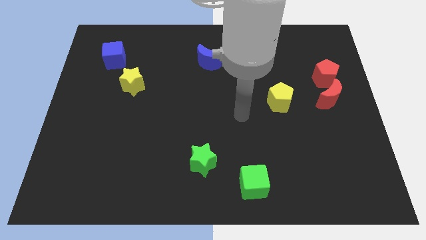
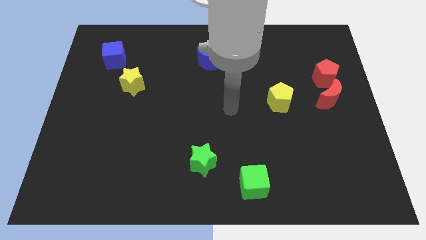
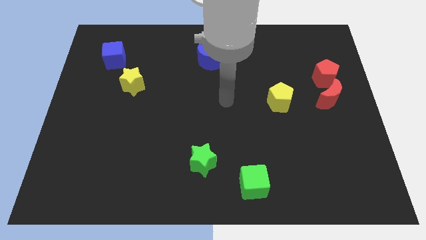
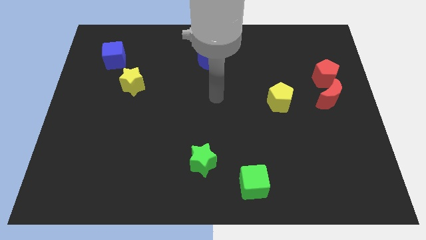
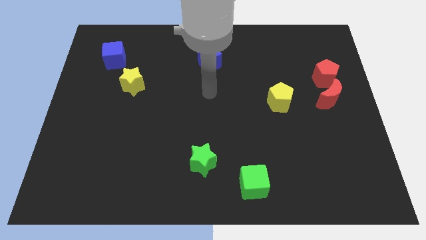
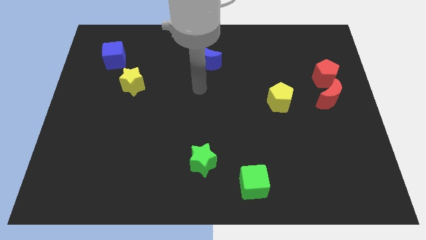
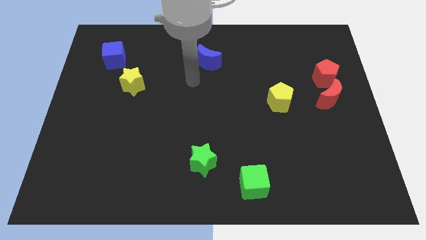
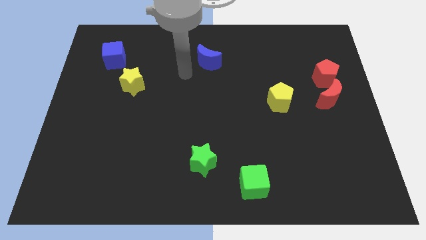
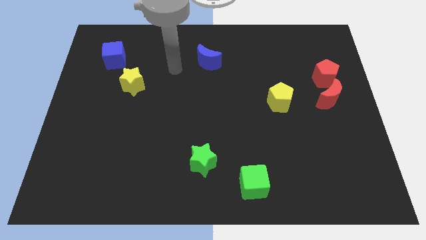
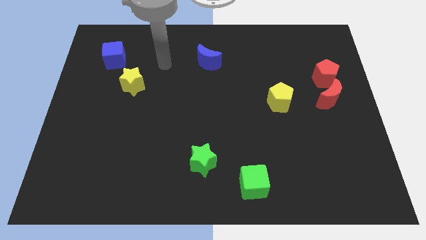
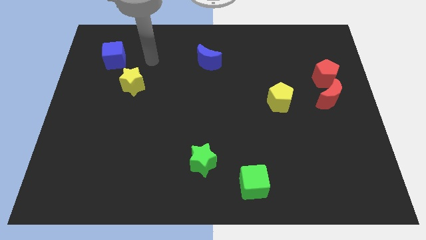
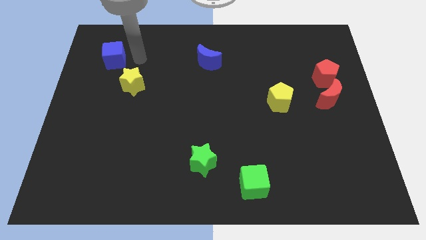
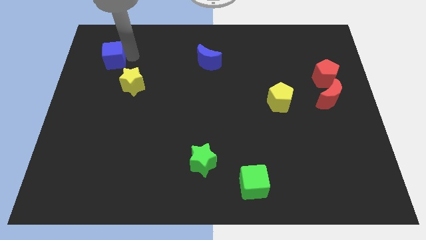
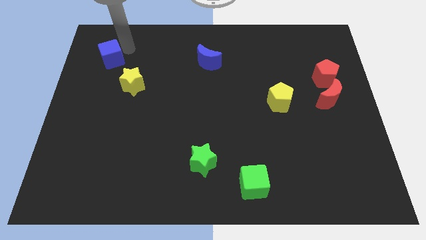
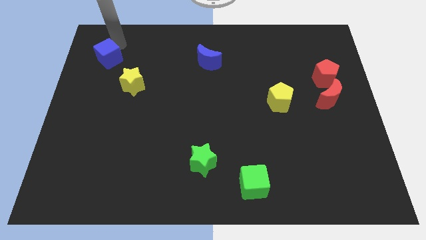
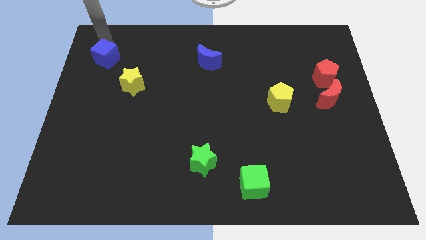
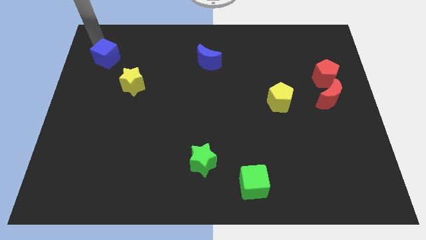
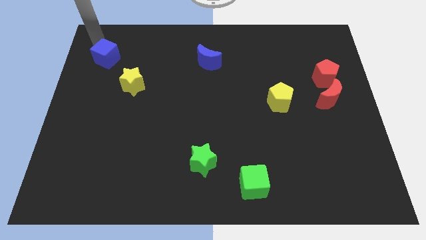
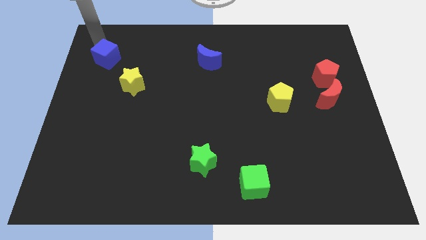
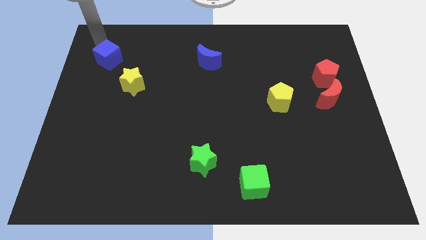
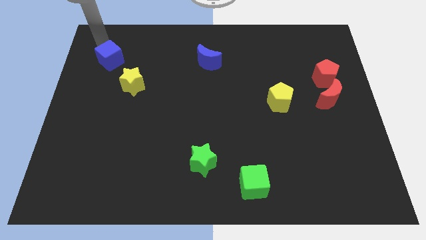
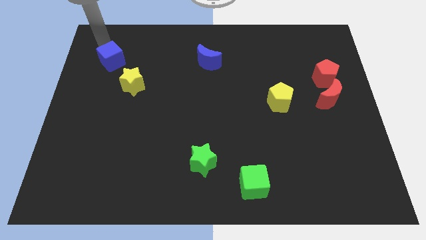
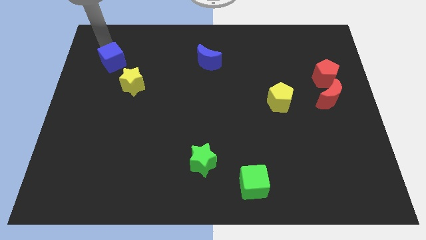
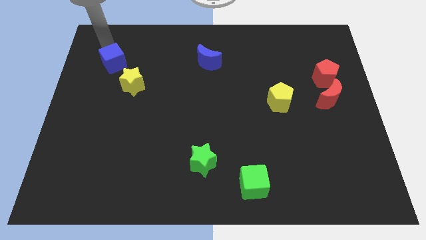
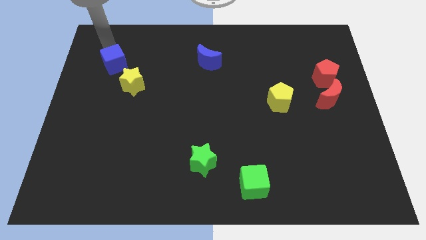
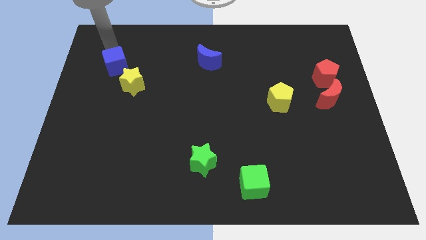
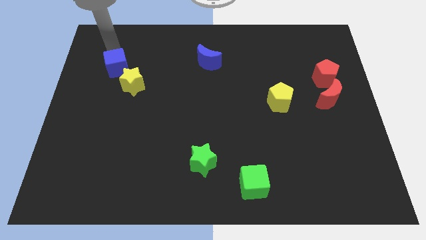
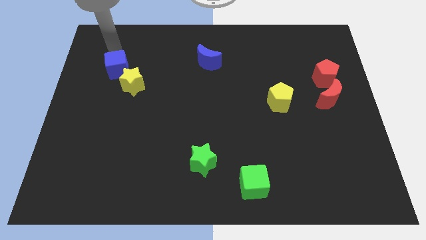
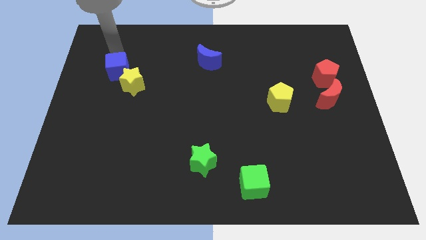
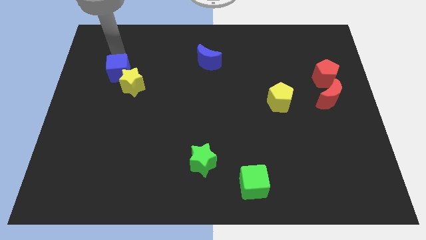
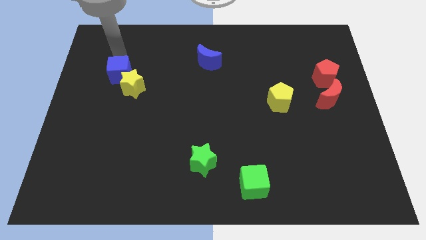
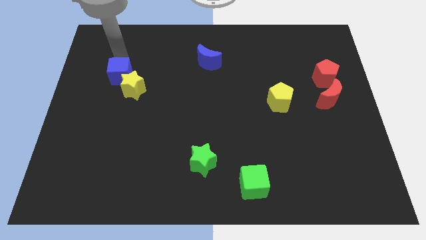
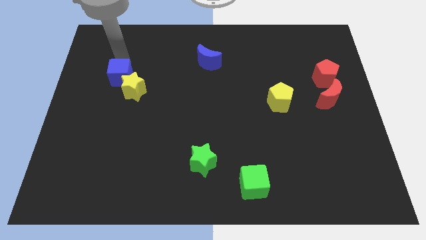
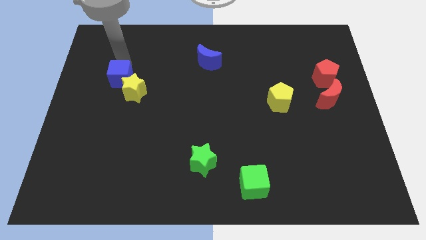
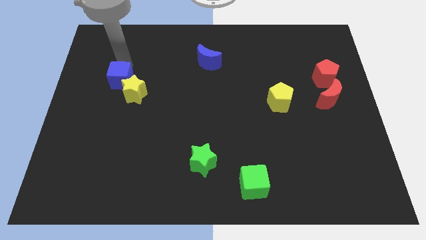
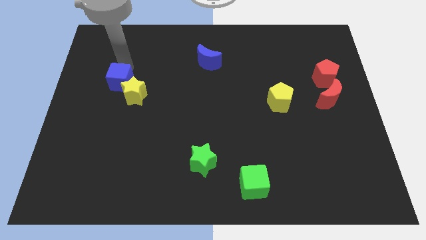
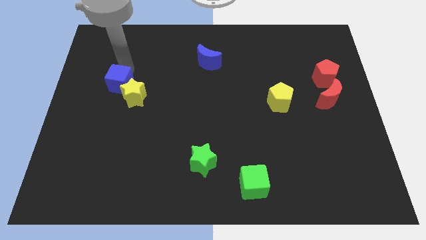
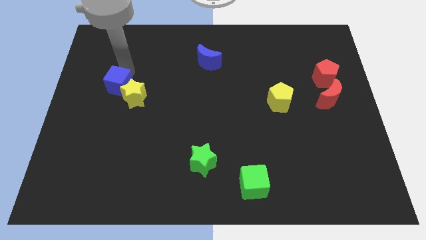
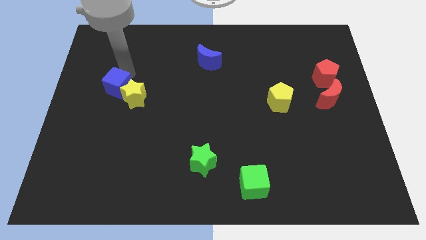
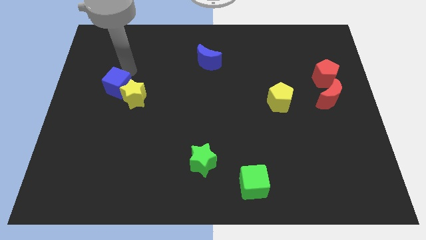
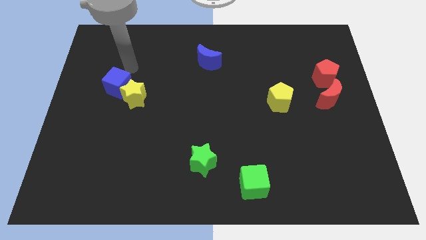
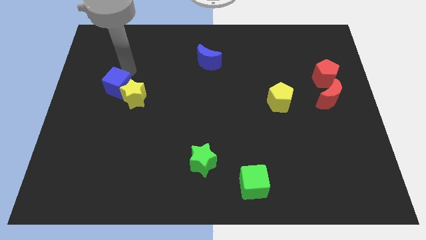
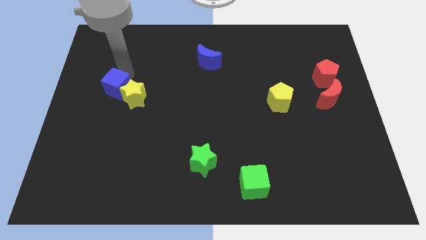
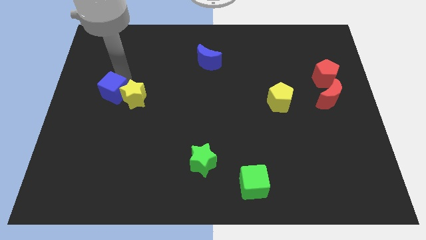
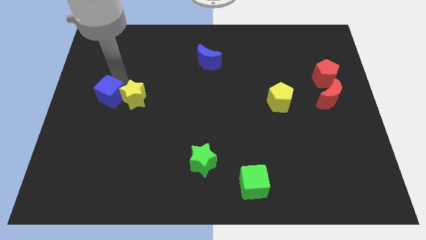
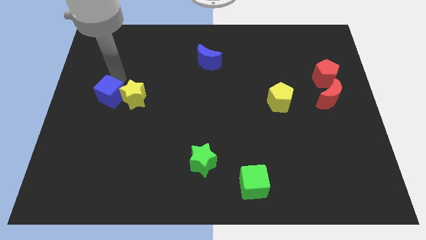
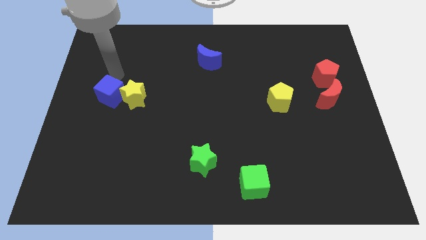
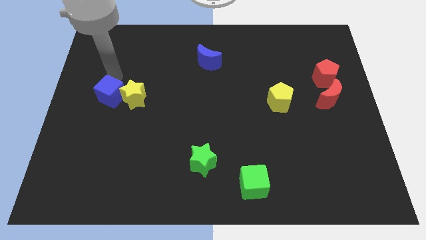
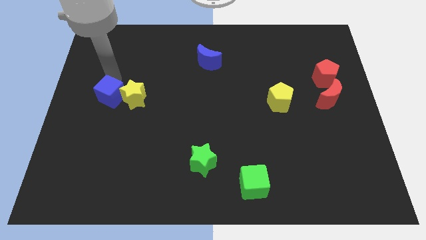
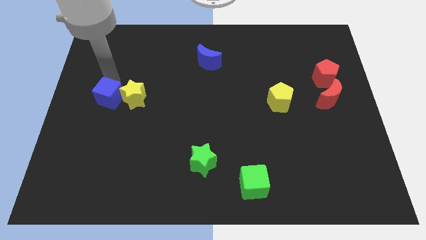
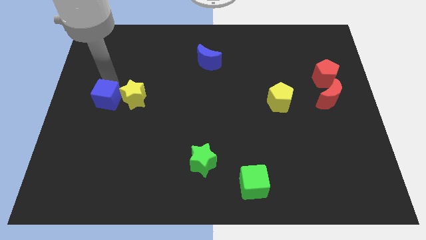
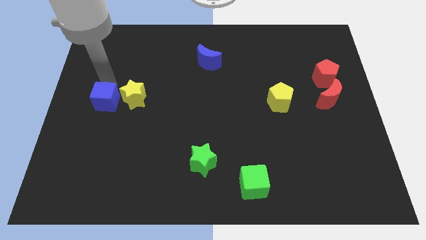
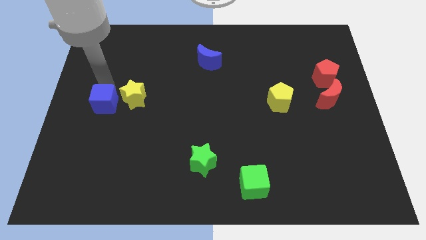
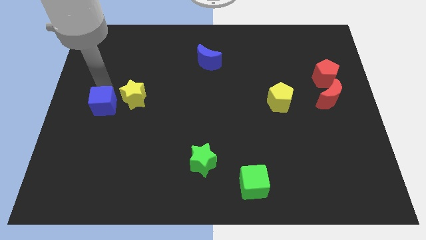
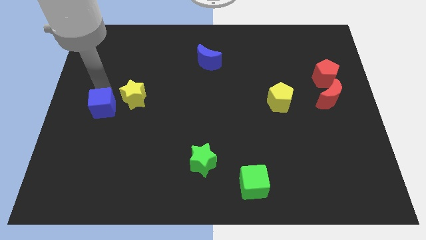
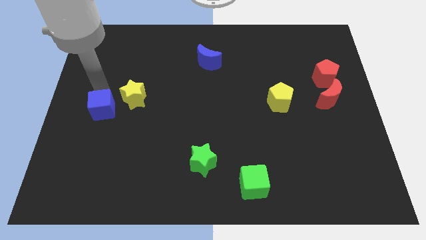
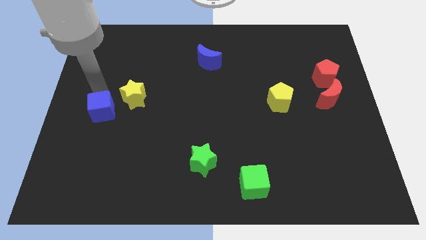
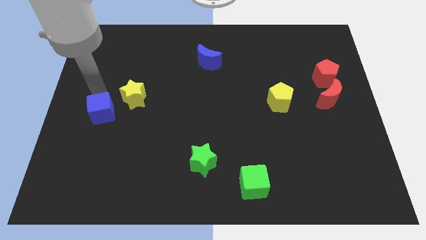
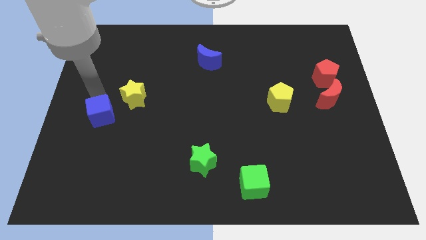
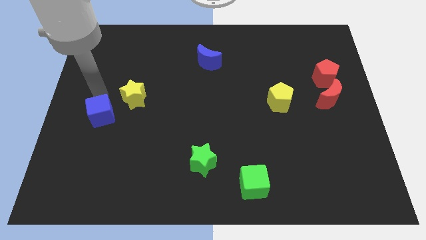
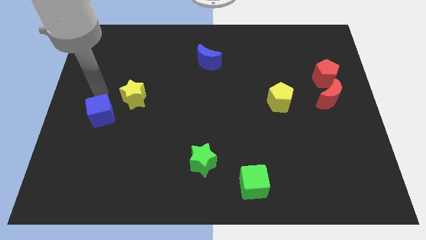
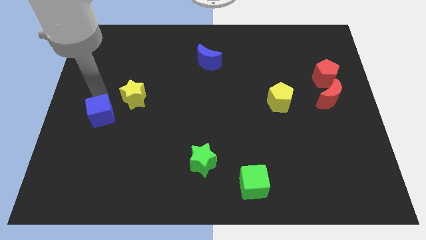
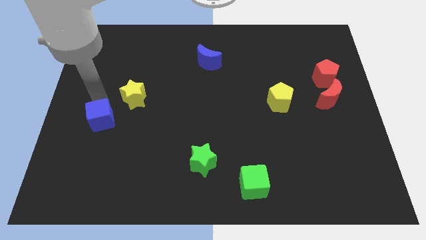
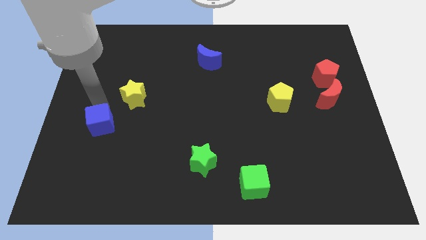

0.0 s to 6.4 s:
slide the blue cube down

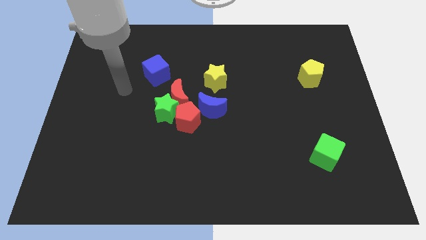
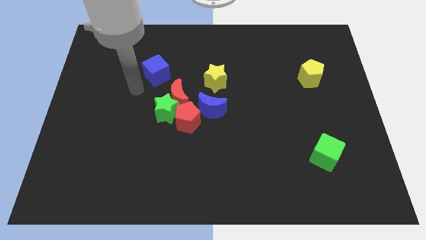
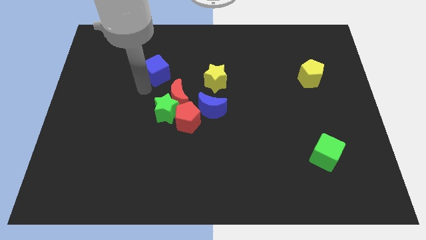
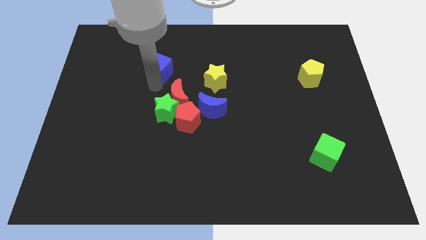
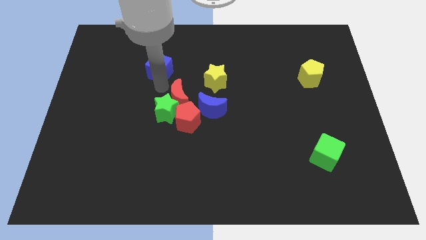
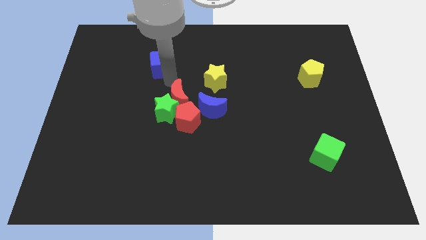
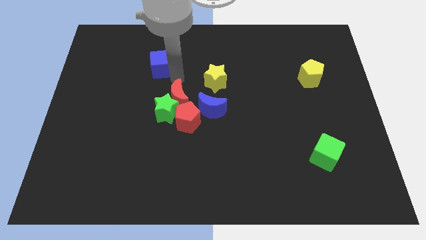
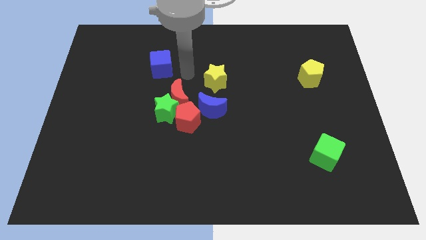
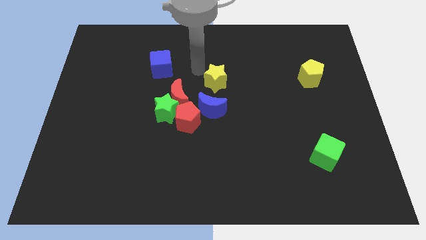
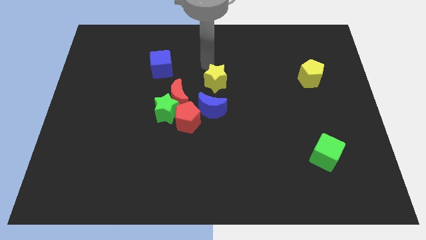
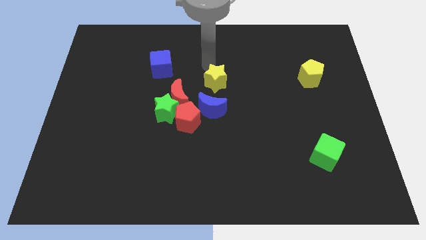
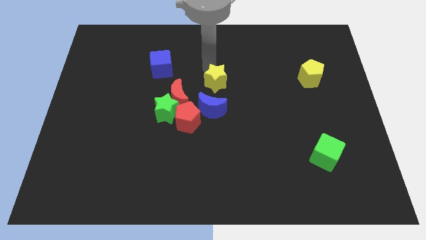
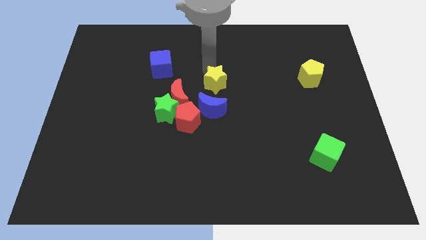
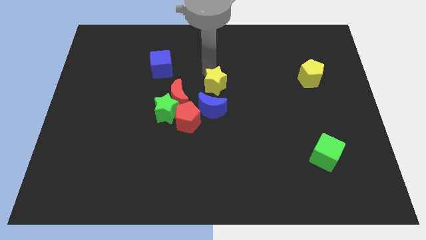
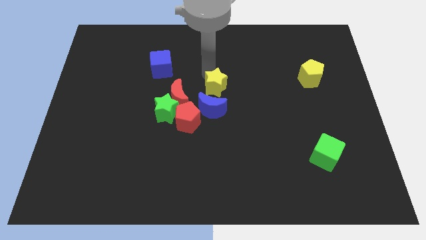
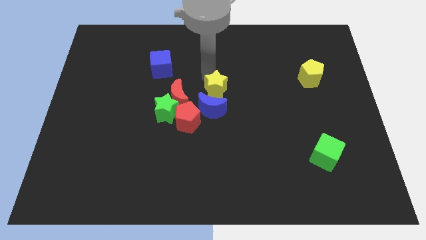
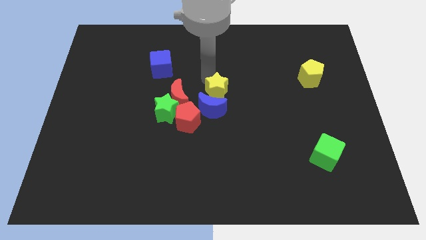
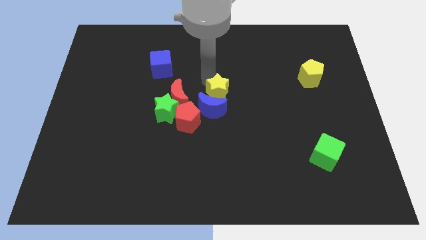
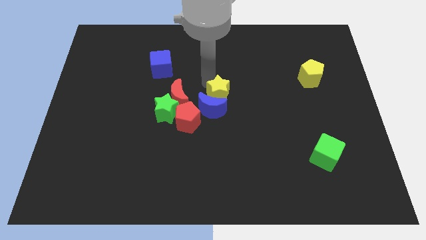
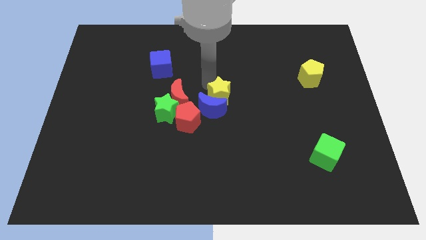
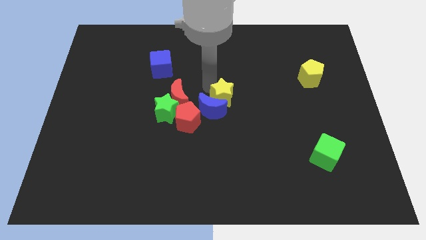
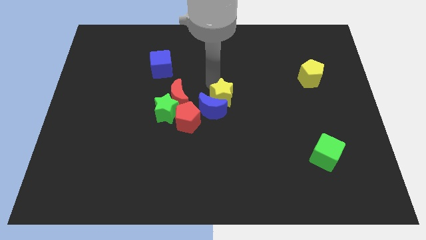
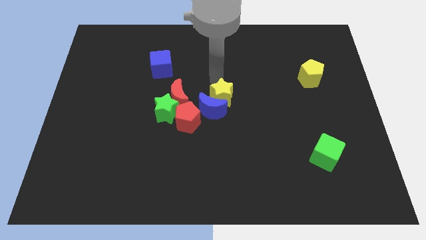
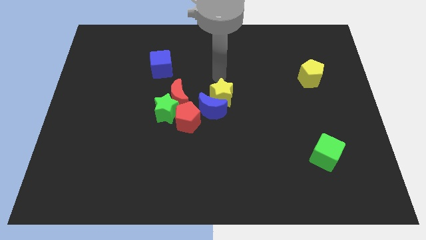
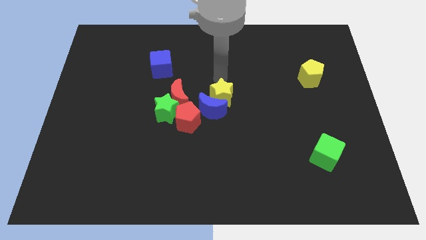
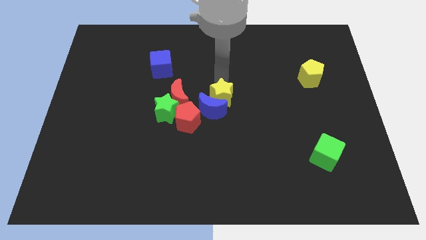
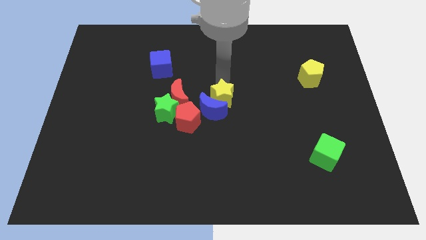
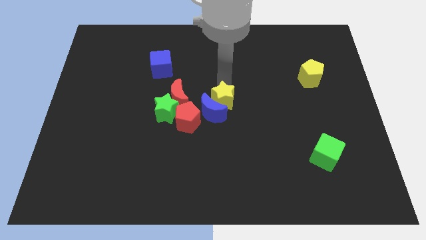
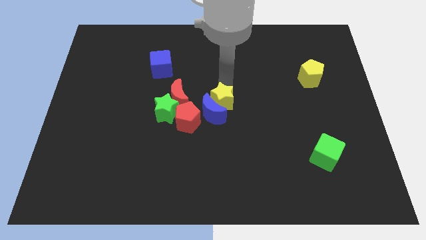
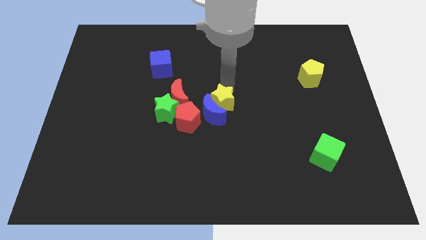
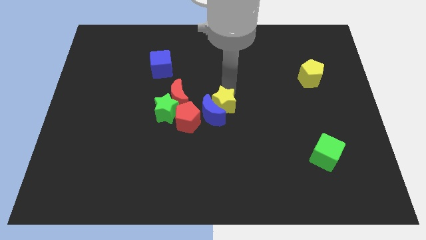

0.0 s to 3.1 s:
move the yellow star slightly downwards
